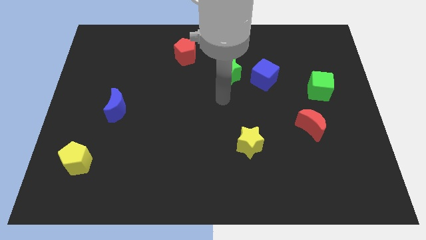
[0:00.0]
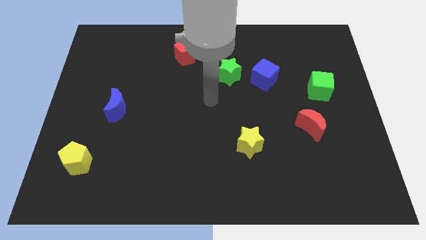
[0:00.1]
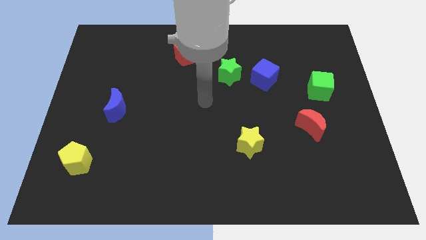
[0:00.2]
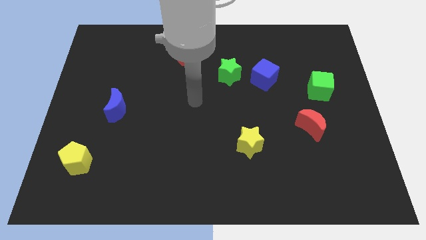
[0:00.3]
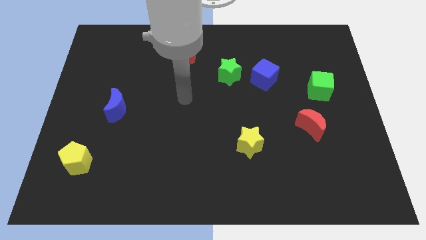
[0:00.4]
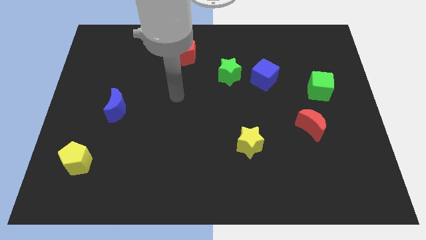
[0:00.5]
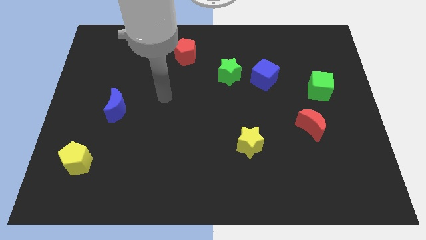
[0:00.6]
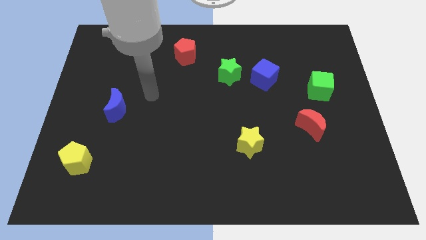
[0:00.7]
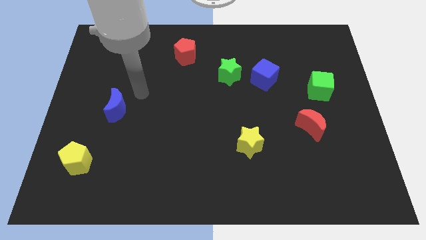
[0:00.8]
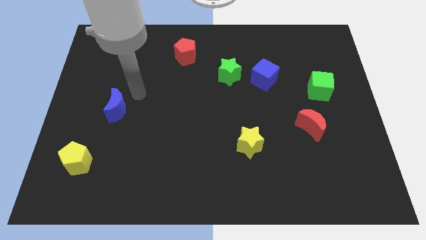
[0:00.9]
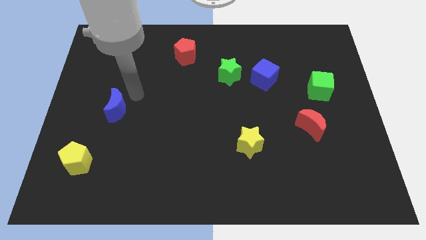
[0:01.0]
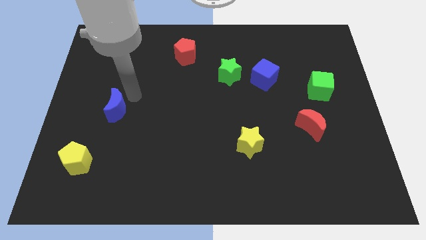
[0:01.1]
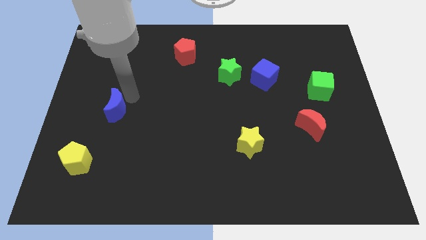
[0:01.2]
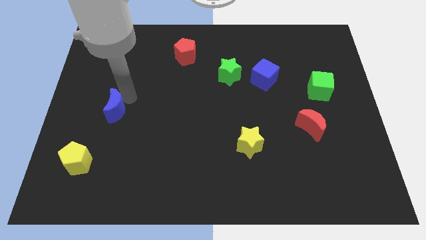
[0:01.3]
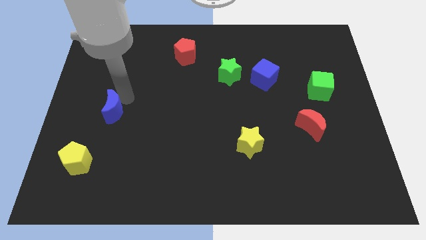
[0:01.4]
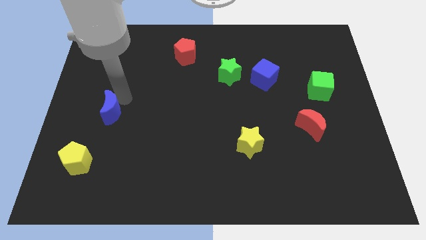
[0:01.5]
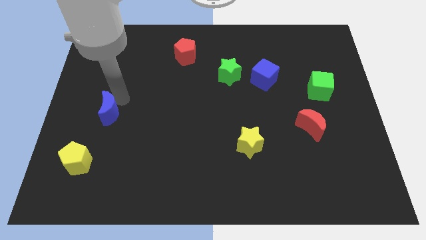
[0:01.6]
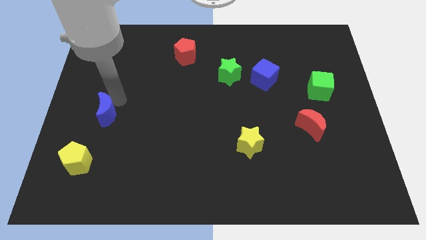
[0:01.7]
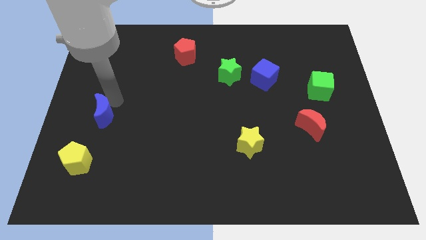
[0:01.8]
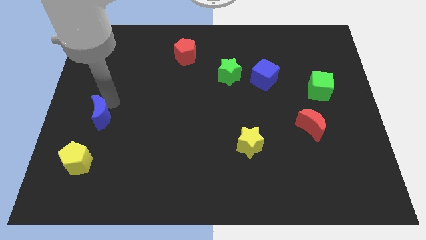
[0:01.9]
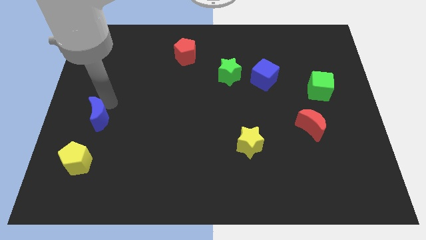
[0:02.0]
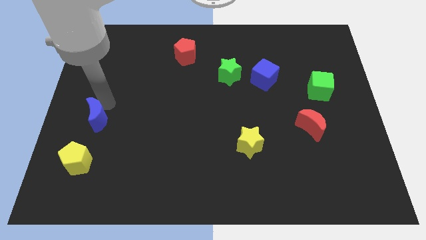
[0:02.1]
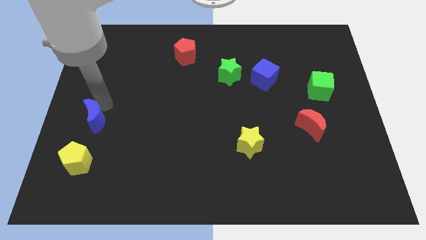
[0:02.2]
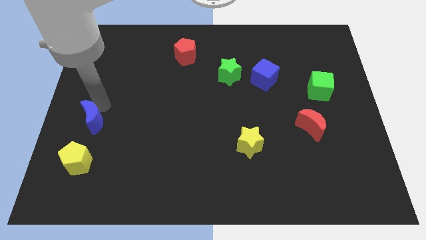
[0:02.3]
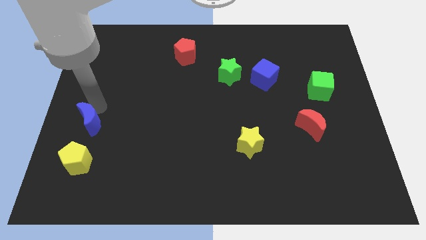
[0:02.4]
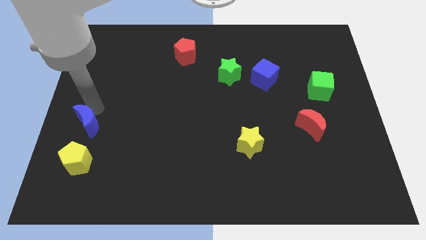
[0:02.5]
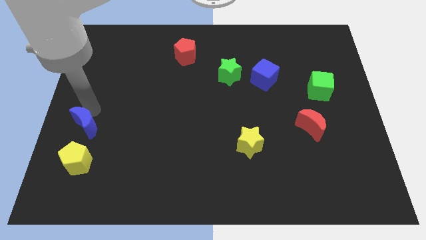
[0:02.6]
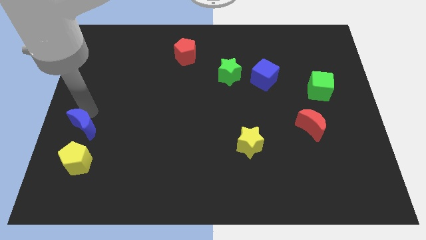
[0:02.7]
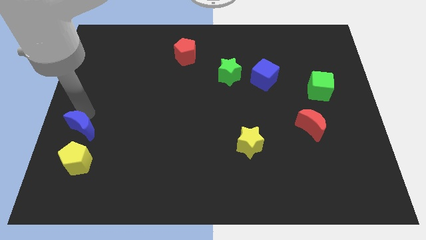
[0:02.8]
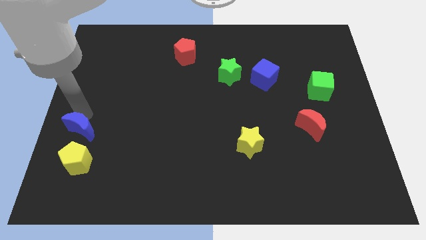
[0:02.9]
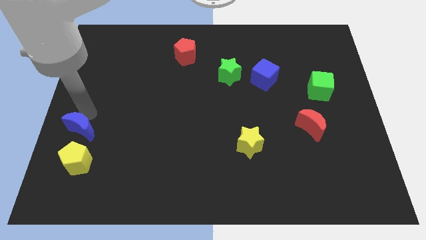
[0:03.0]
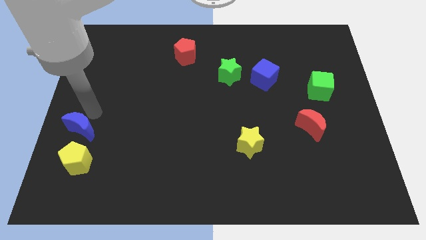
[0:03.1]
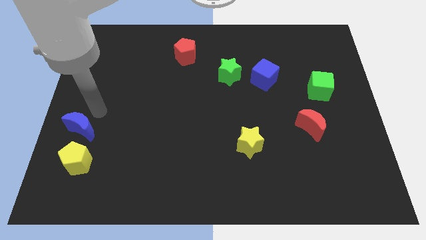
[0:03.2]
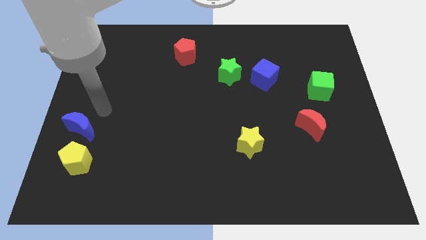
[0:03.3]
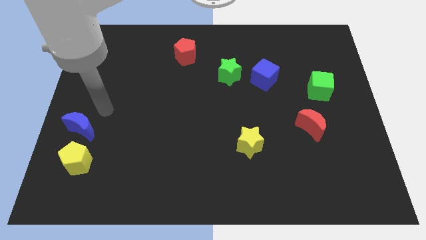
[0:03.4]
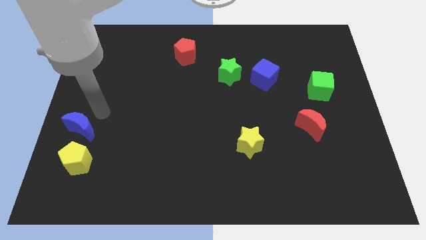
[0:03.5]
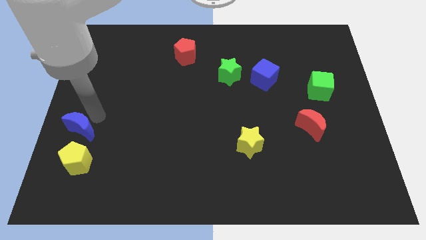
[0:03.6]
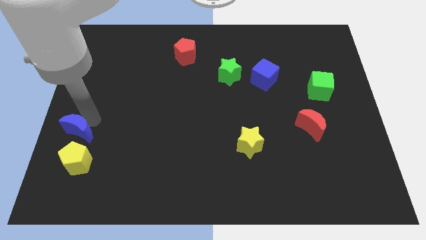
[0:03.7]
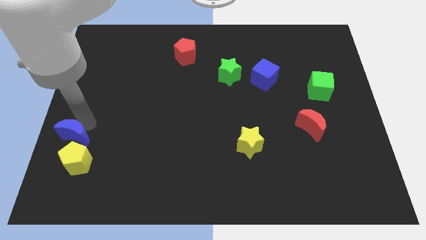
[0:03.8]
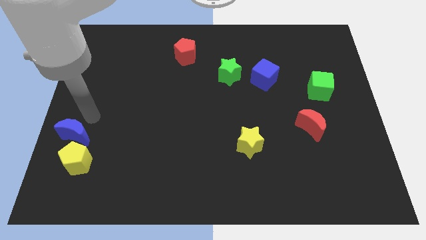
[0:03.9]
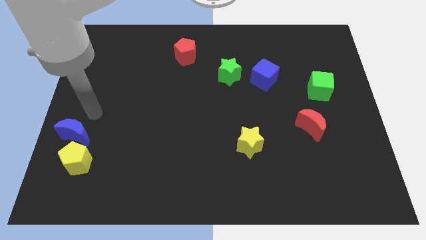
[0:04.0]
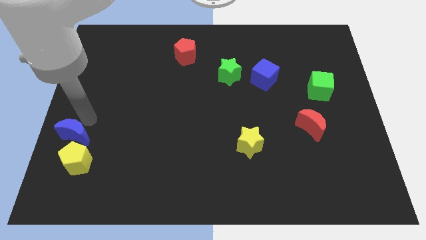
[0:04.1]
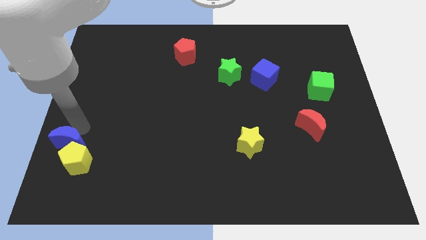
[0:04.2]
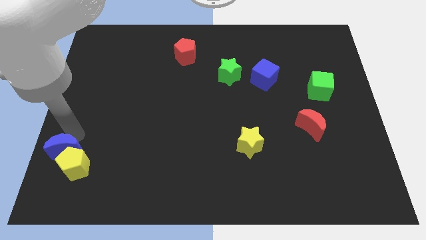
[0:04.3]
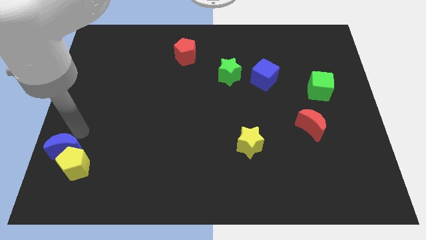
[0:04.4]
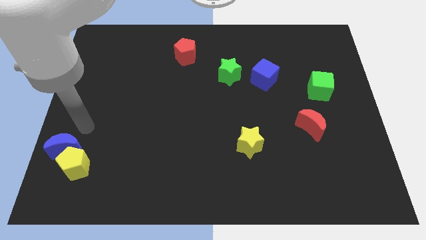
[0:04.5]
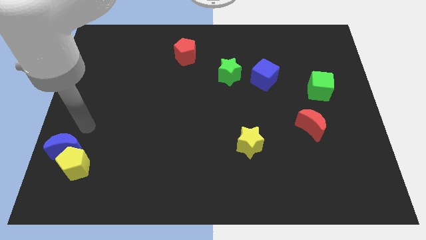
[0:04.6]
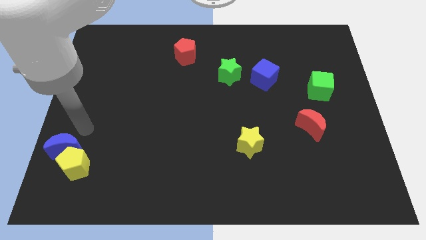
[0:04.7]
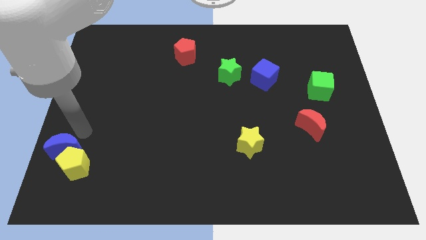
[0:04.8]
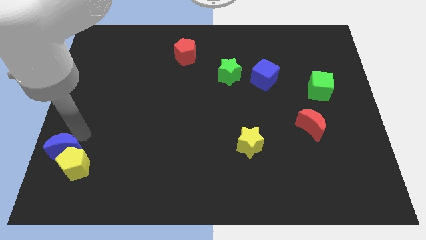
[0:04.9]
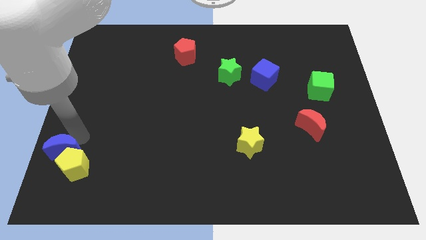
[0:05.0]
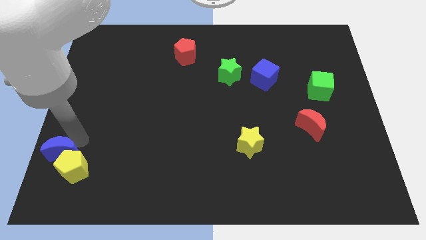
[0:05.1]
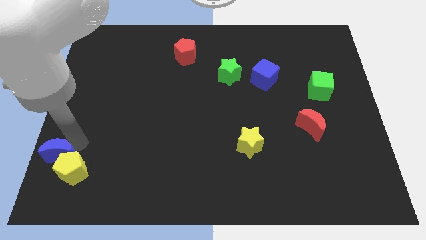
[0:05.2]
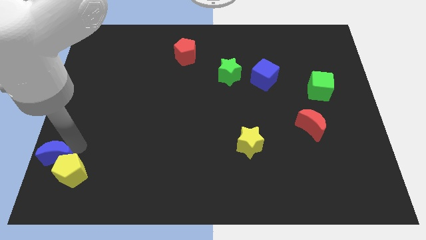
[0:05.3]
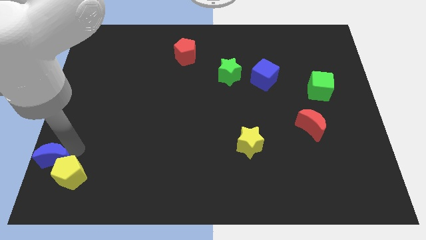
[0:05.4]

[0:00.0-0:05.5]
move the blue moon to the bottom left of the board
